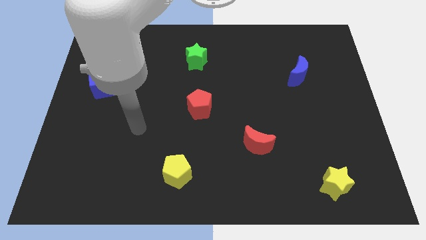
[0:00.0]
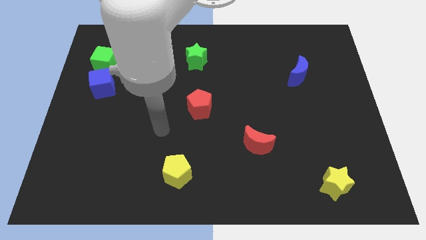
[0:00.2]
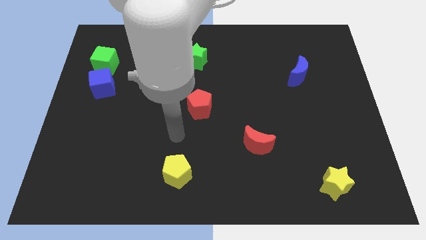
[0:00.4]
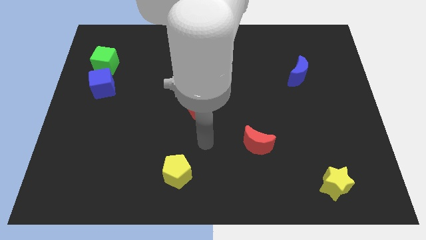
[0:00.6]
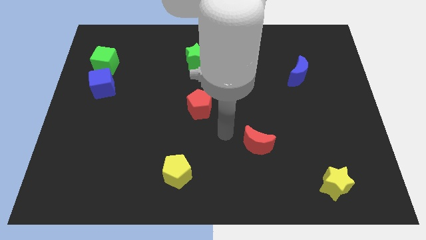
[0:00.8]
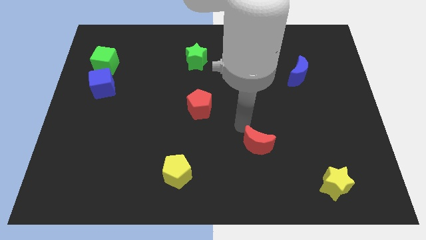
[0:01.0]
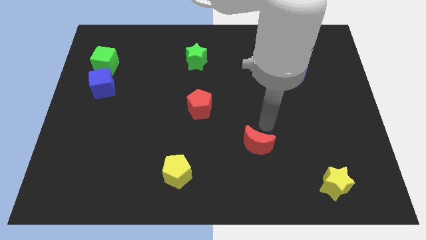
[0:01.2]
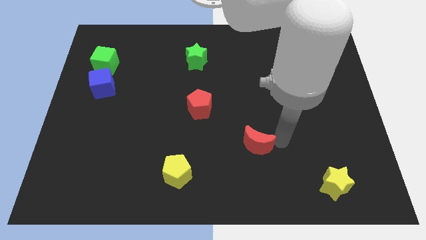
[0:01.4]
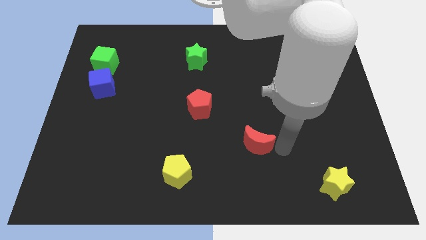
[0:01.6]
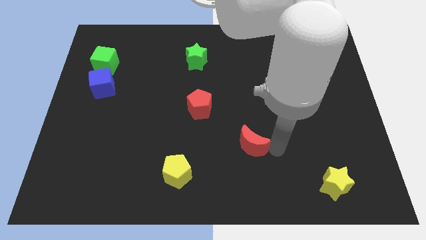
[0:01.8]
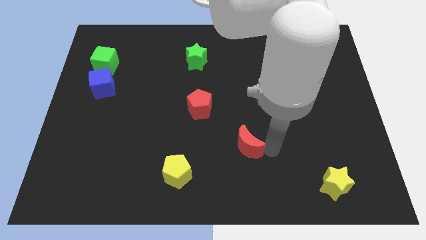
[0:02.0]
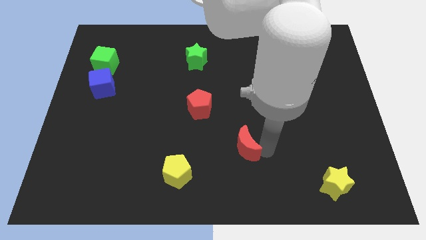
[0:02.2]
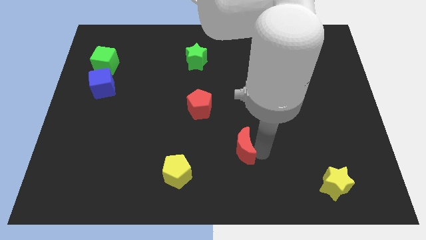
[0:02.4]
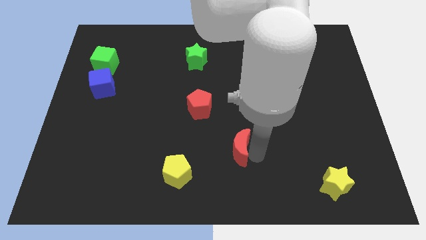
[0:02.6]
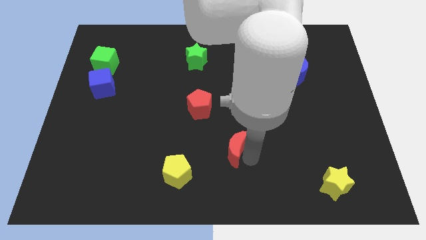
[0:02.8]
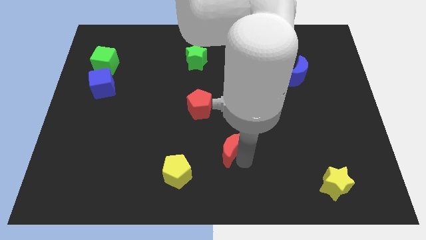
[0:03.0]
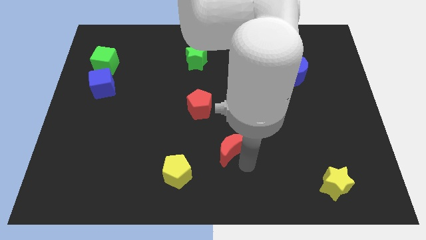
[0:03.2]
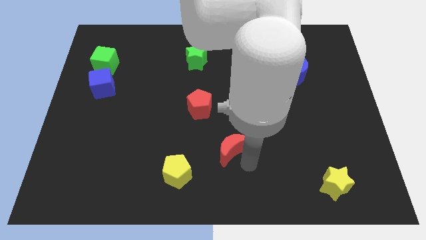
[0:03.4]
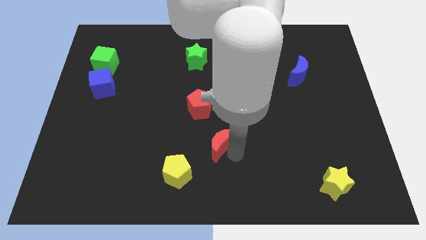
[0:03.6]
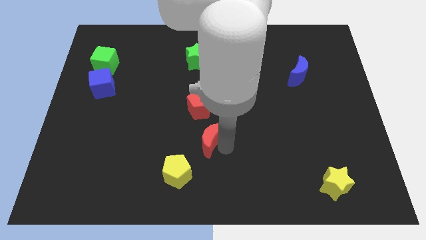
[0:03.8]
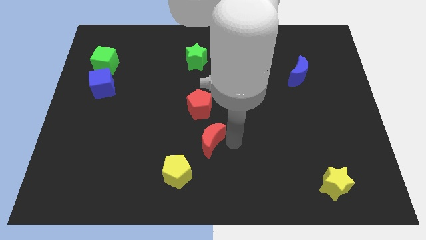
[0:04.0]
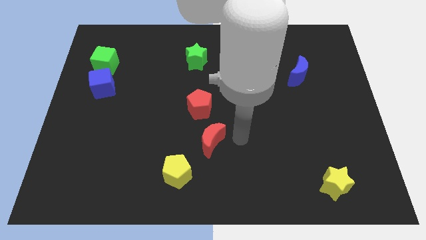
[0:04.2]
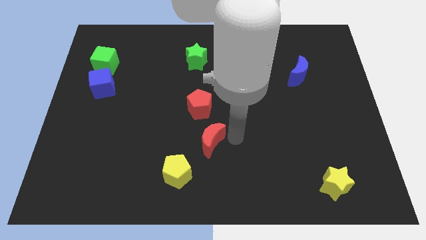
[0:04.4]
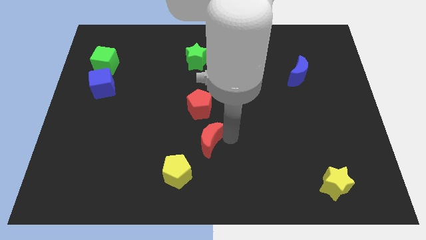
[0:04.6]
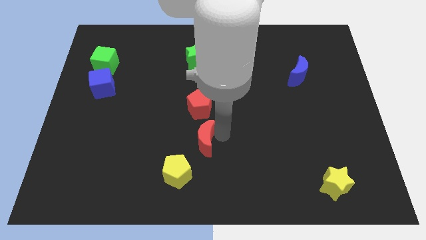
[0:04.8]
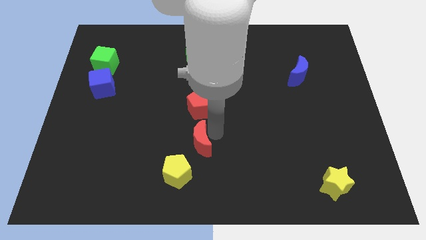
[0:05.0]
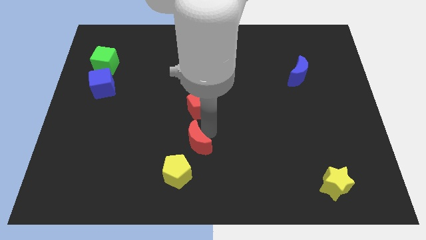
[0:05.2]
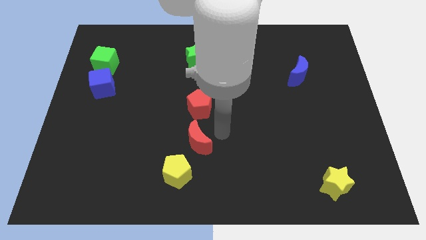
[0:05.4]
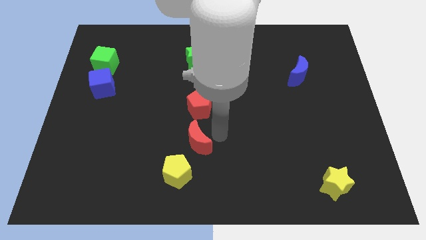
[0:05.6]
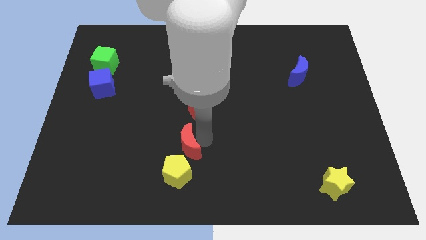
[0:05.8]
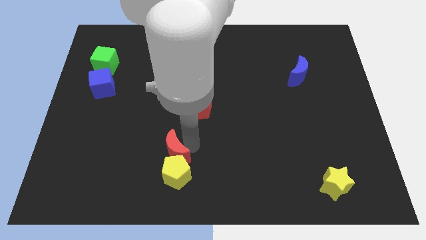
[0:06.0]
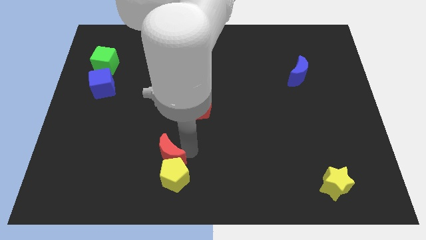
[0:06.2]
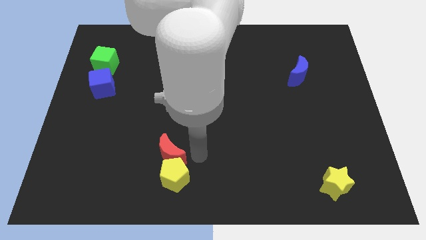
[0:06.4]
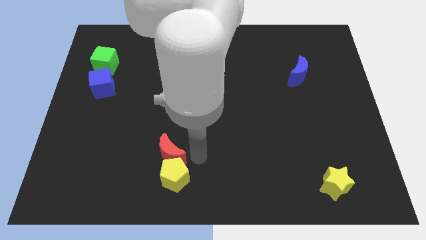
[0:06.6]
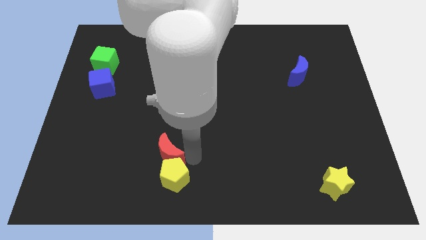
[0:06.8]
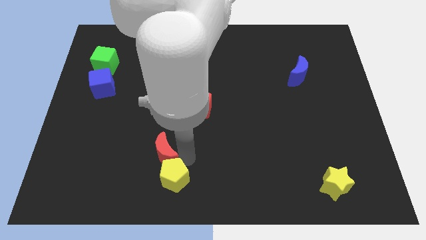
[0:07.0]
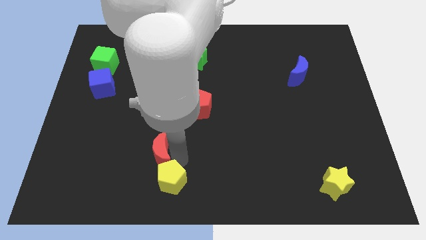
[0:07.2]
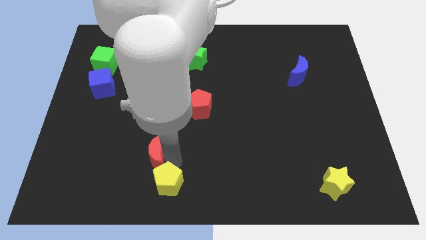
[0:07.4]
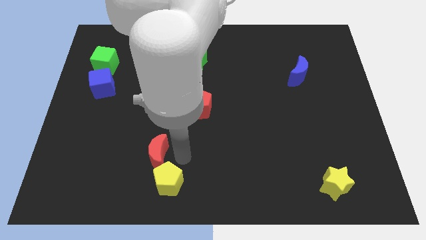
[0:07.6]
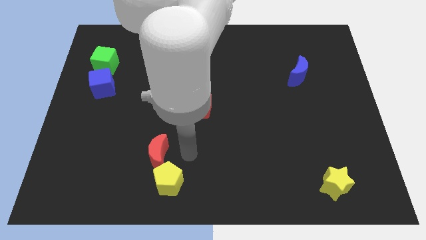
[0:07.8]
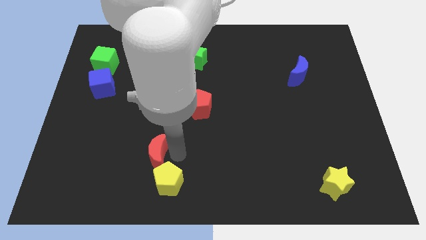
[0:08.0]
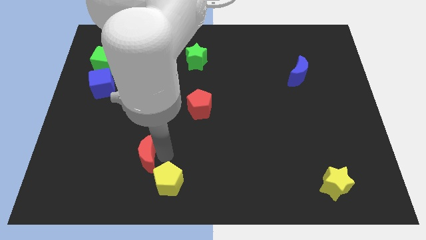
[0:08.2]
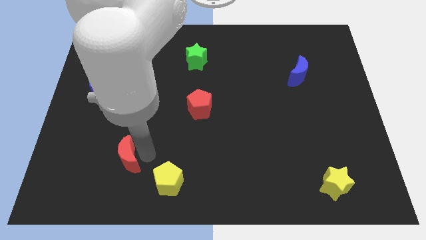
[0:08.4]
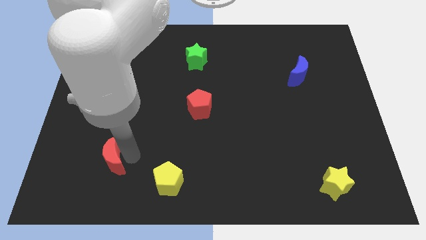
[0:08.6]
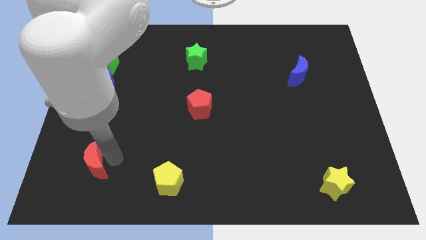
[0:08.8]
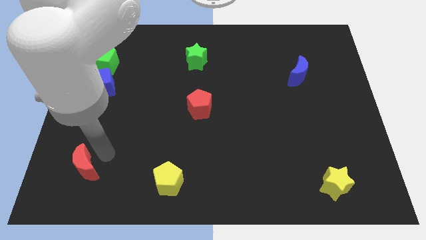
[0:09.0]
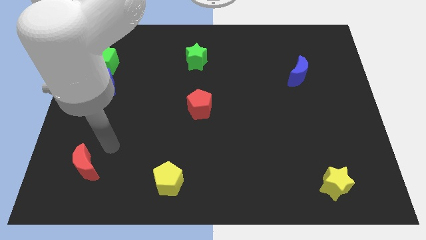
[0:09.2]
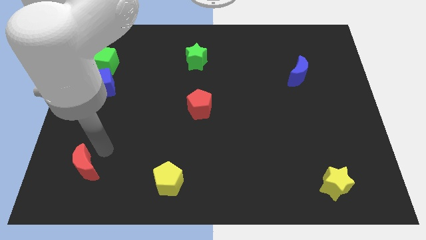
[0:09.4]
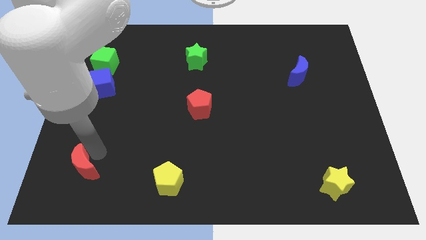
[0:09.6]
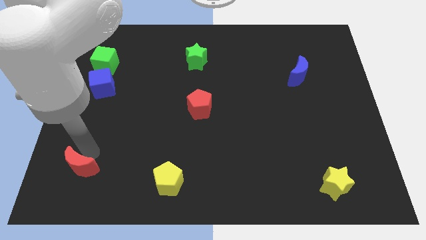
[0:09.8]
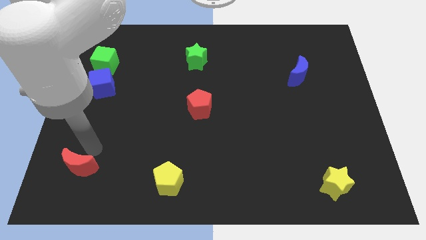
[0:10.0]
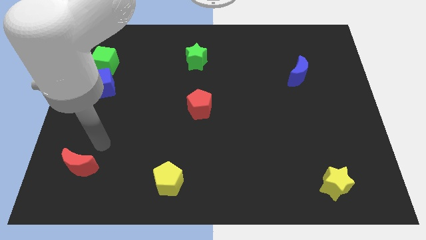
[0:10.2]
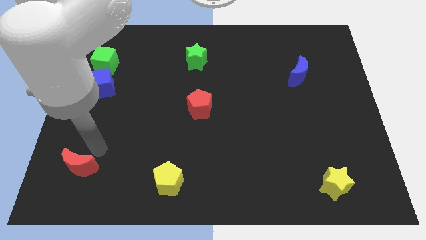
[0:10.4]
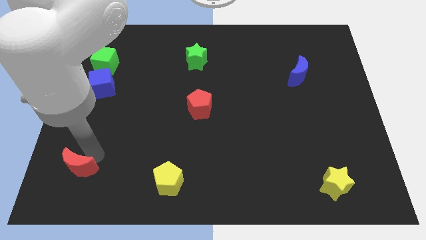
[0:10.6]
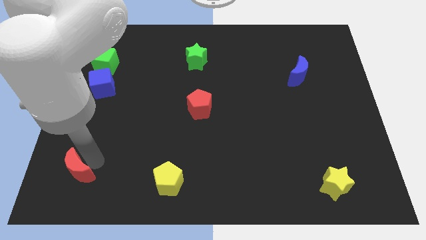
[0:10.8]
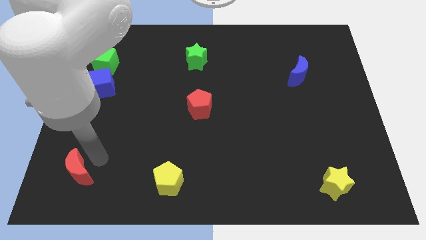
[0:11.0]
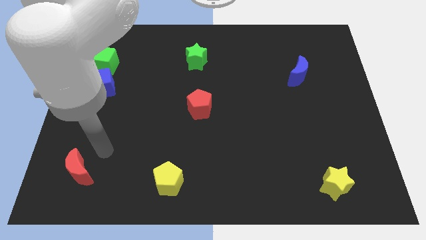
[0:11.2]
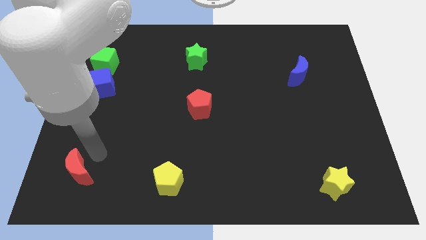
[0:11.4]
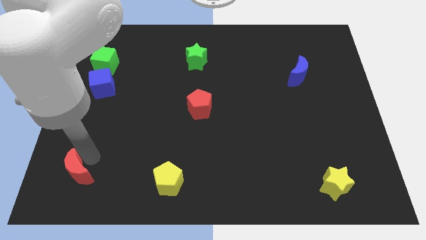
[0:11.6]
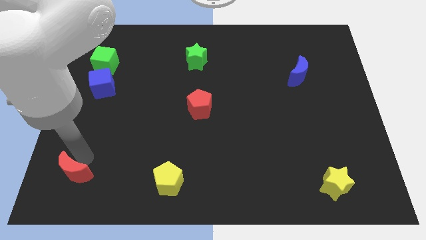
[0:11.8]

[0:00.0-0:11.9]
move the red moon to the bottom left corner

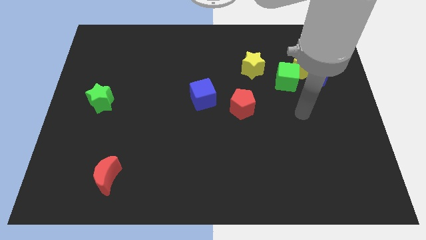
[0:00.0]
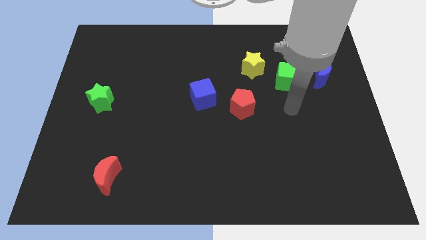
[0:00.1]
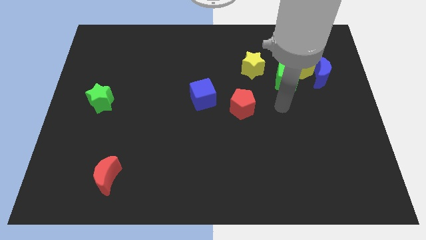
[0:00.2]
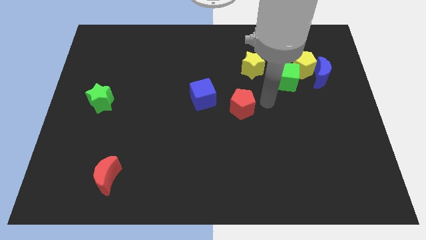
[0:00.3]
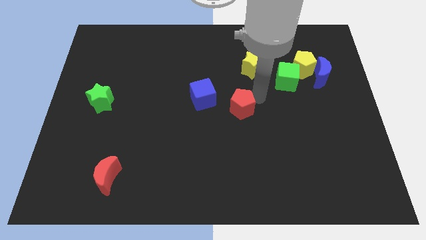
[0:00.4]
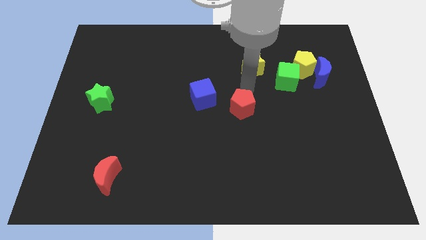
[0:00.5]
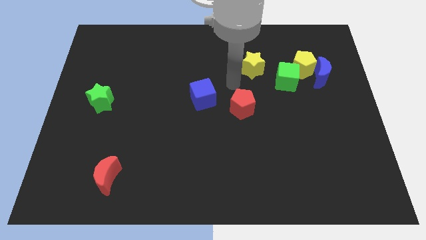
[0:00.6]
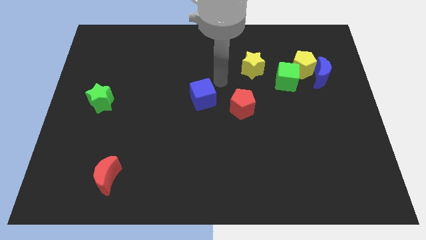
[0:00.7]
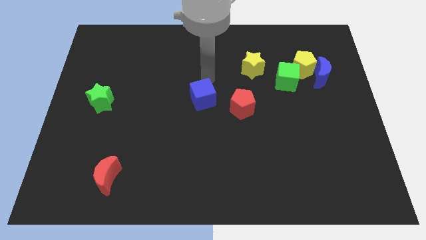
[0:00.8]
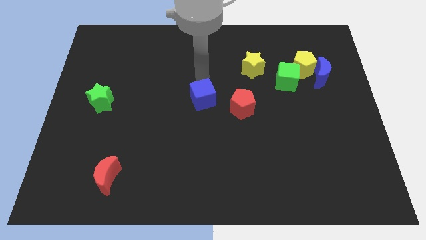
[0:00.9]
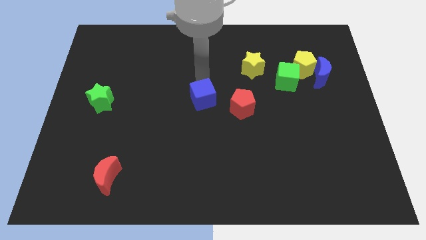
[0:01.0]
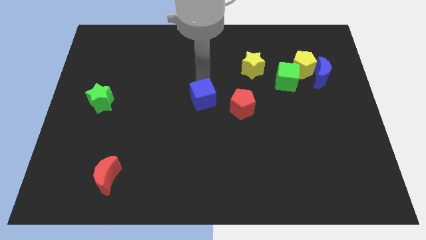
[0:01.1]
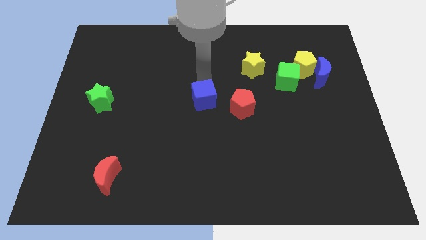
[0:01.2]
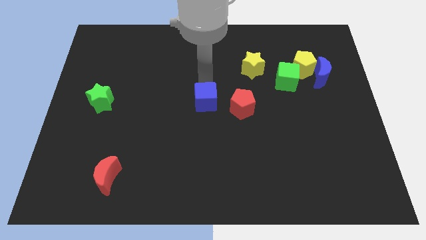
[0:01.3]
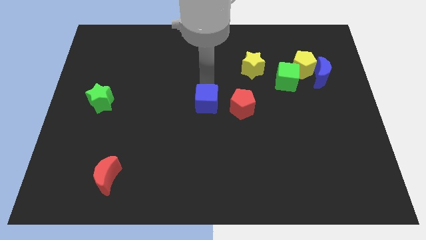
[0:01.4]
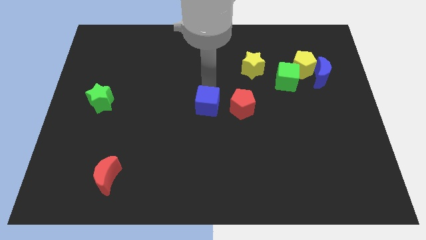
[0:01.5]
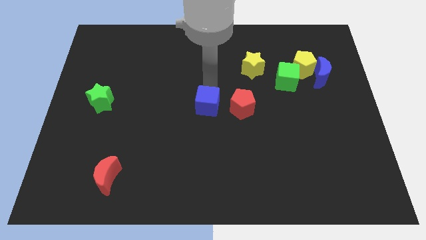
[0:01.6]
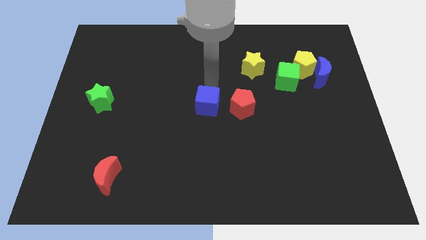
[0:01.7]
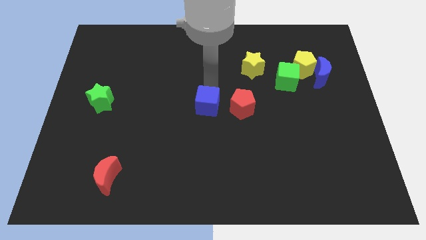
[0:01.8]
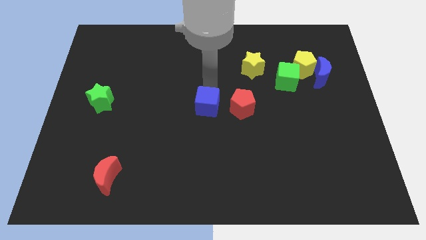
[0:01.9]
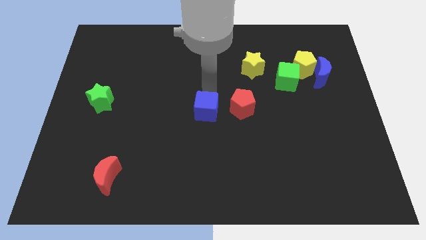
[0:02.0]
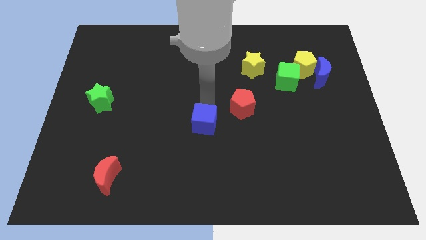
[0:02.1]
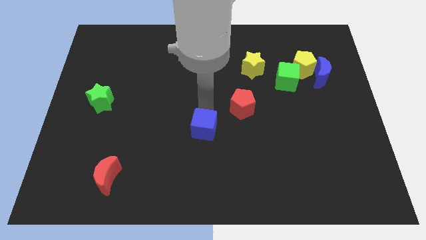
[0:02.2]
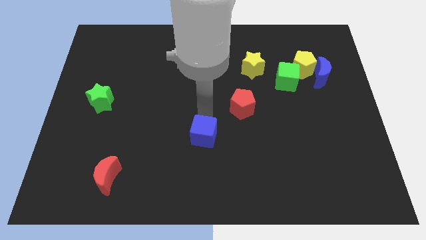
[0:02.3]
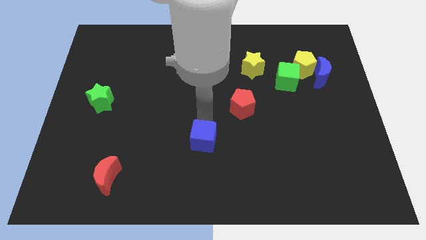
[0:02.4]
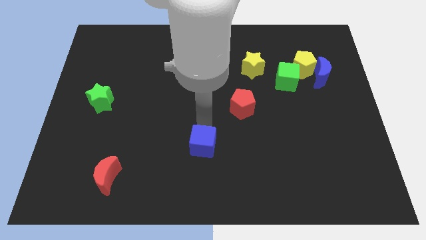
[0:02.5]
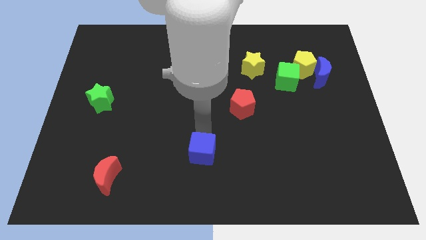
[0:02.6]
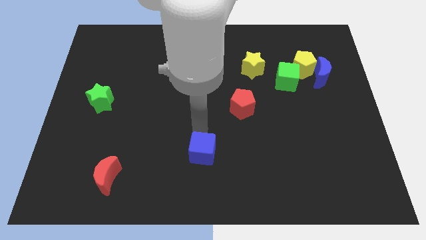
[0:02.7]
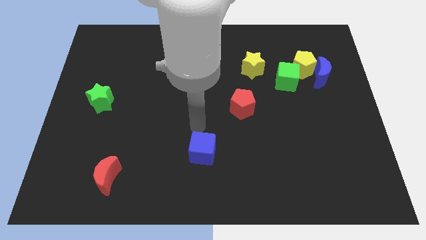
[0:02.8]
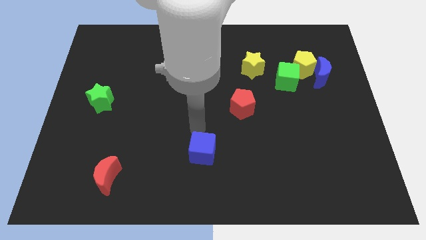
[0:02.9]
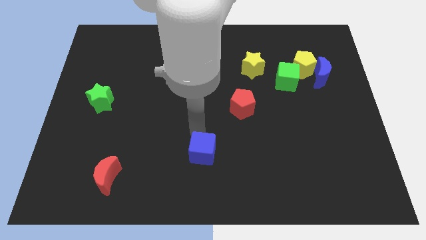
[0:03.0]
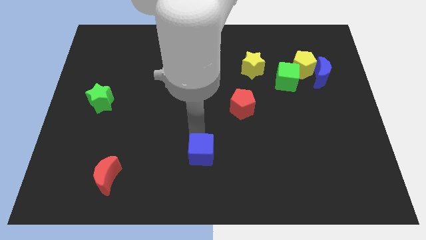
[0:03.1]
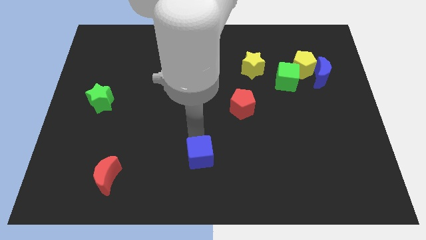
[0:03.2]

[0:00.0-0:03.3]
put the blue cube to the bottom
